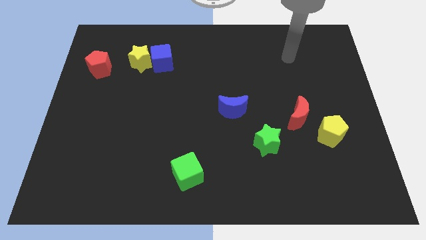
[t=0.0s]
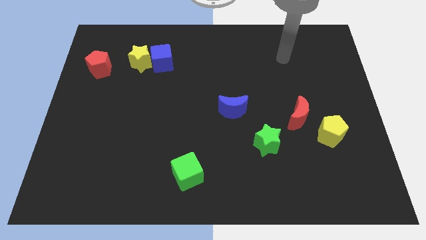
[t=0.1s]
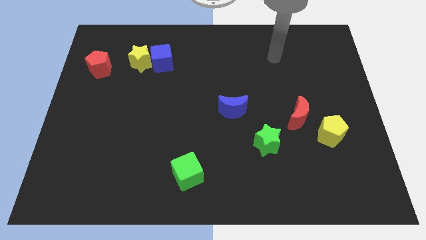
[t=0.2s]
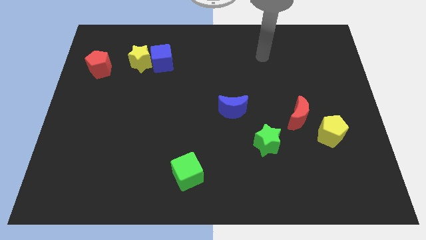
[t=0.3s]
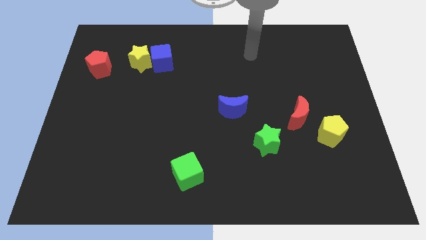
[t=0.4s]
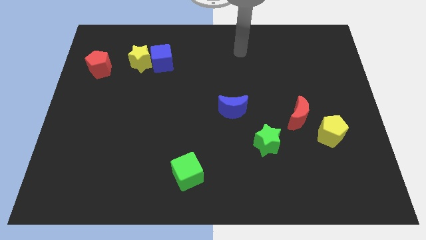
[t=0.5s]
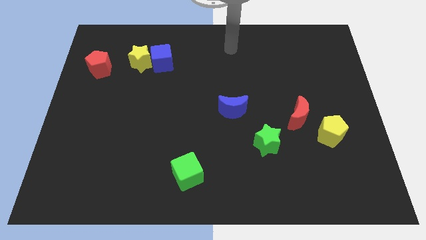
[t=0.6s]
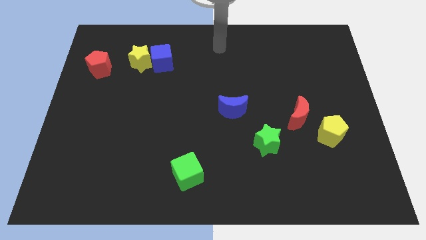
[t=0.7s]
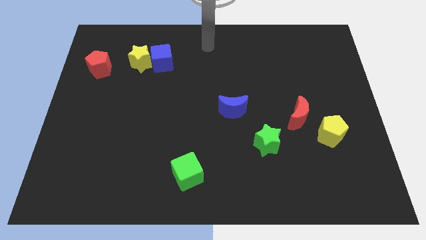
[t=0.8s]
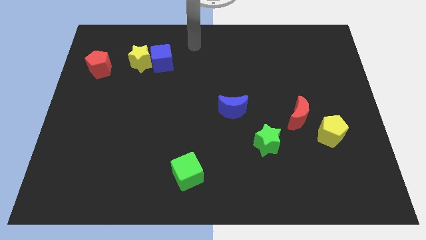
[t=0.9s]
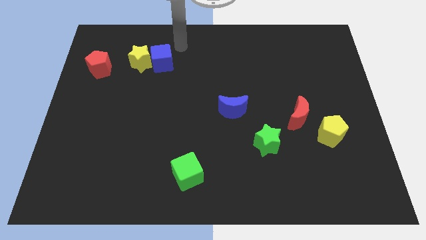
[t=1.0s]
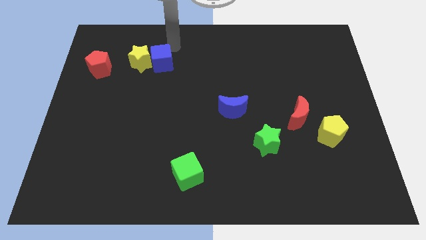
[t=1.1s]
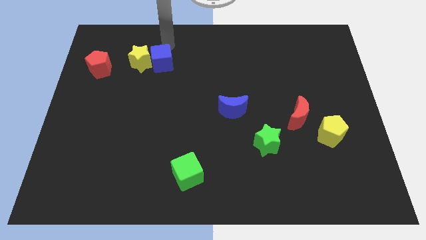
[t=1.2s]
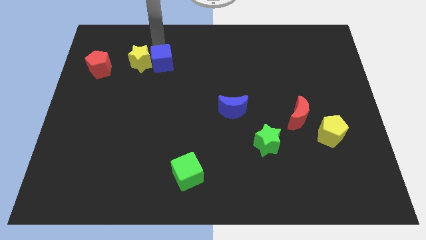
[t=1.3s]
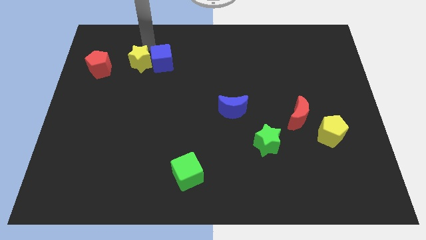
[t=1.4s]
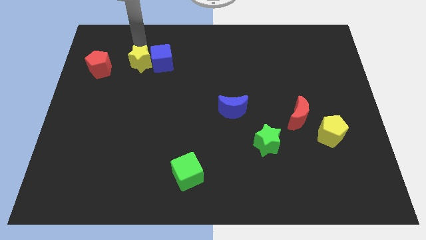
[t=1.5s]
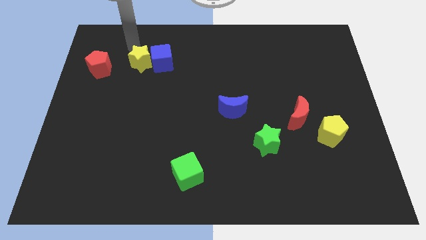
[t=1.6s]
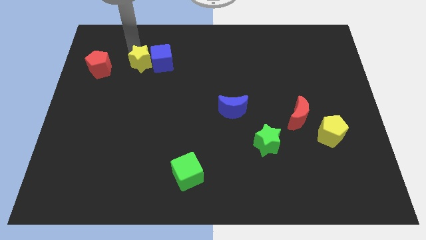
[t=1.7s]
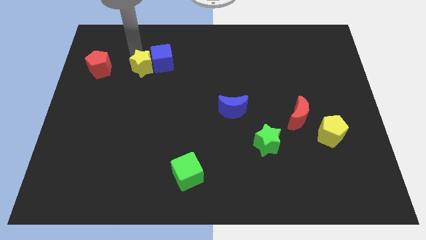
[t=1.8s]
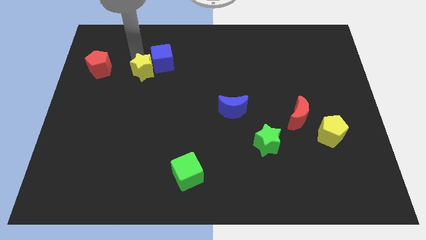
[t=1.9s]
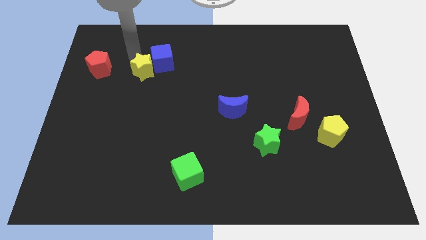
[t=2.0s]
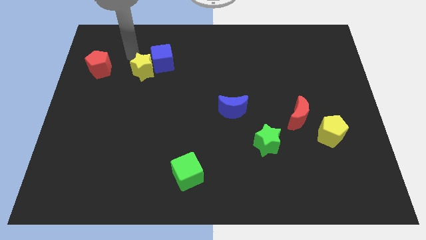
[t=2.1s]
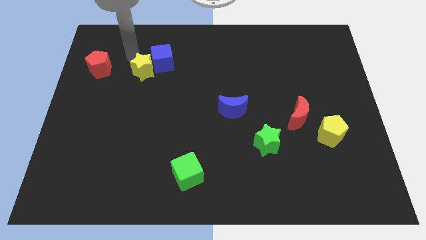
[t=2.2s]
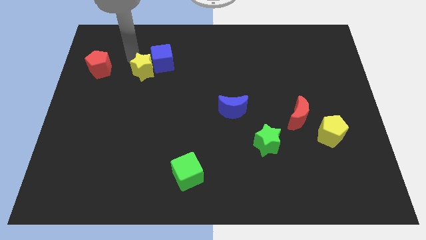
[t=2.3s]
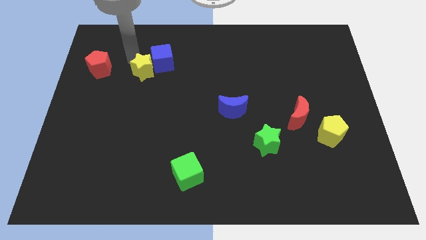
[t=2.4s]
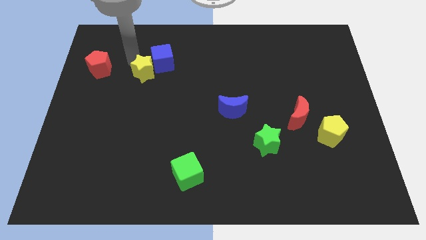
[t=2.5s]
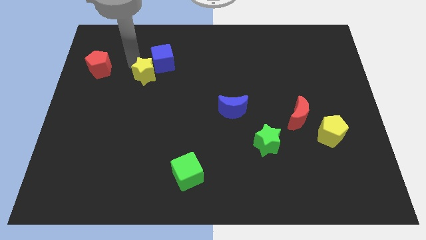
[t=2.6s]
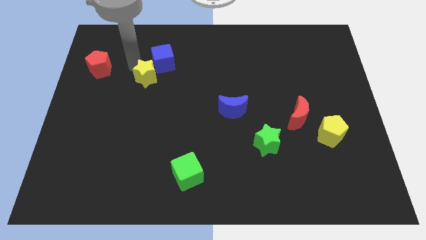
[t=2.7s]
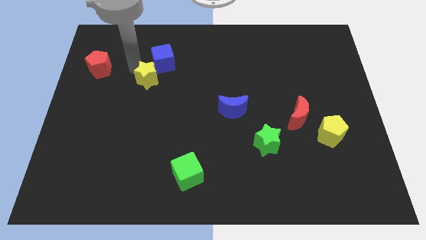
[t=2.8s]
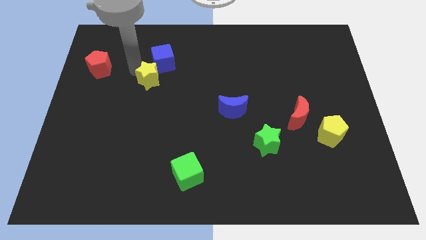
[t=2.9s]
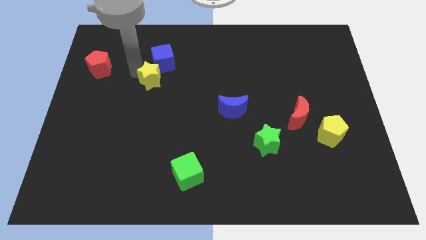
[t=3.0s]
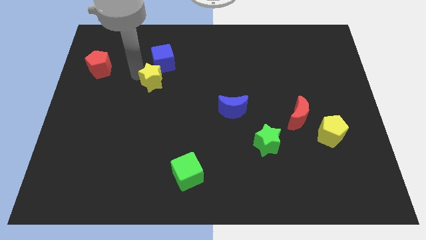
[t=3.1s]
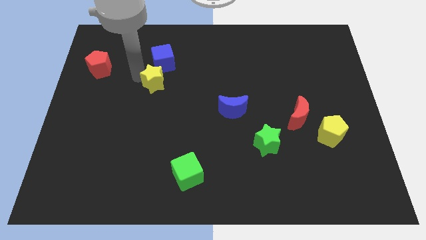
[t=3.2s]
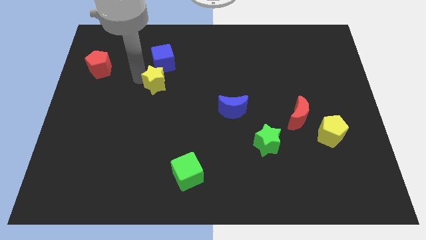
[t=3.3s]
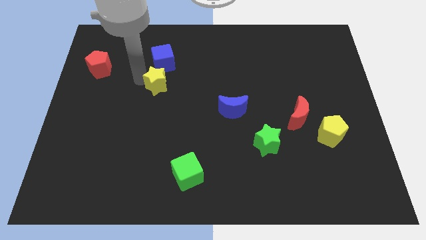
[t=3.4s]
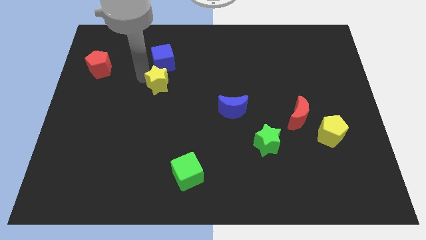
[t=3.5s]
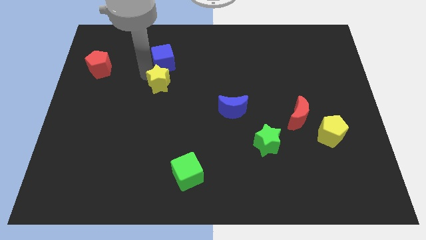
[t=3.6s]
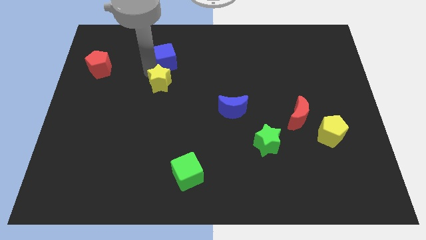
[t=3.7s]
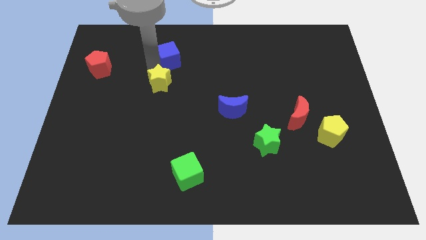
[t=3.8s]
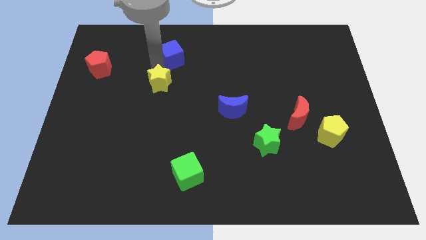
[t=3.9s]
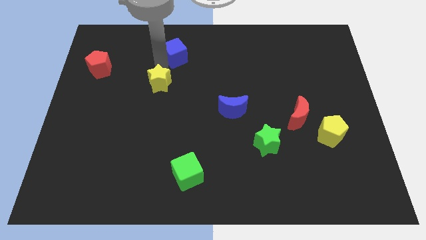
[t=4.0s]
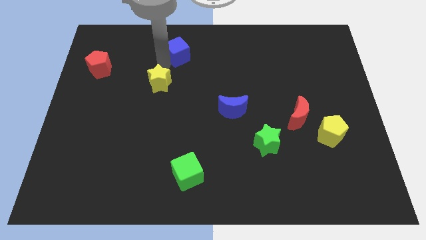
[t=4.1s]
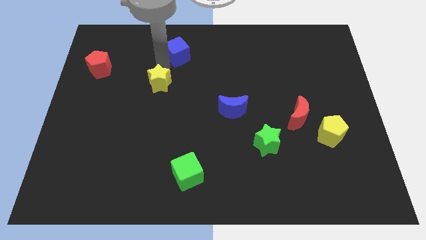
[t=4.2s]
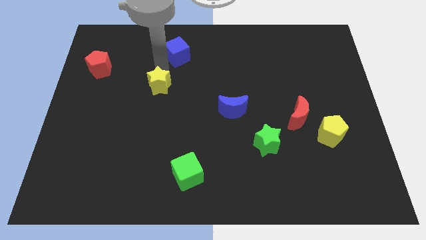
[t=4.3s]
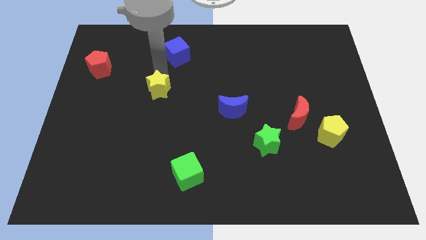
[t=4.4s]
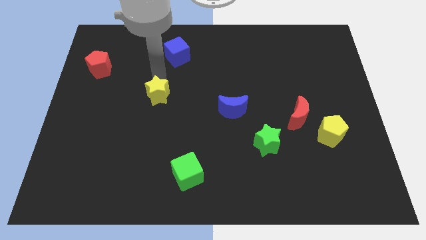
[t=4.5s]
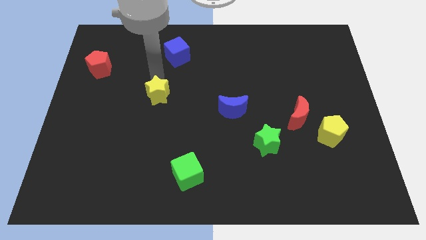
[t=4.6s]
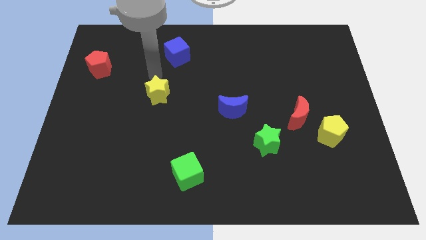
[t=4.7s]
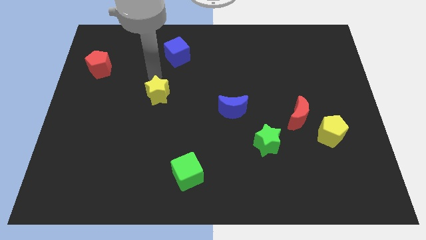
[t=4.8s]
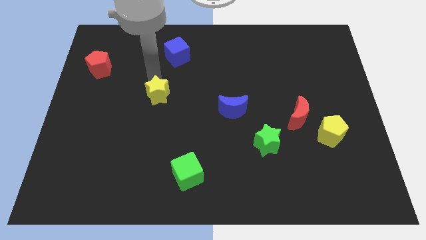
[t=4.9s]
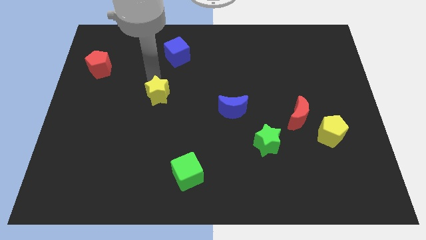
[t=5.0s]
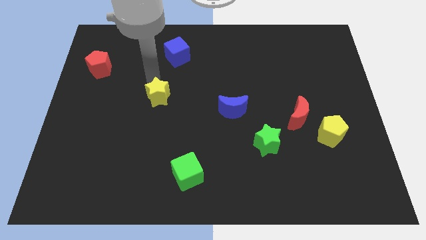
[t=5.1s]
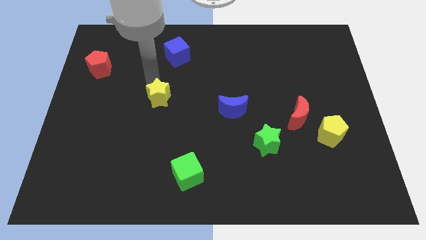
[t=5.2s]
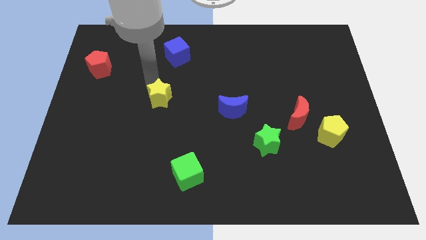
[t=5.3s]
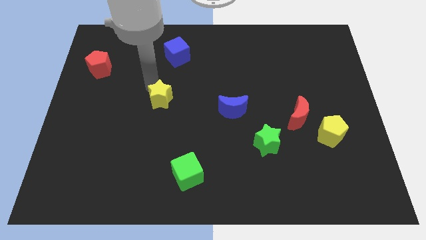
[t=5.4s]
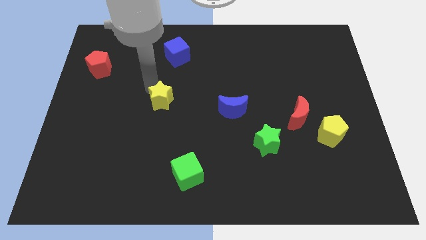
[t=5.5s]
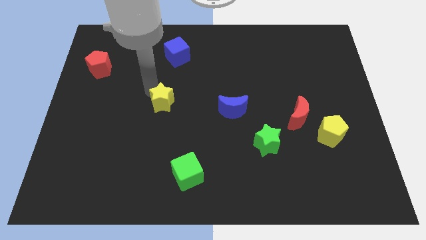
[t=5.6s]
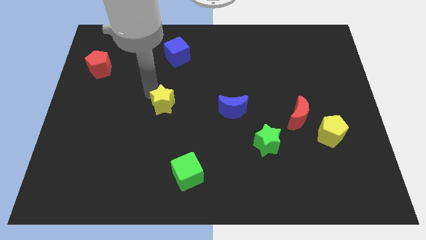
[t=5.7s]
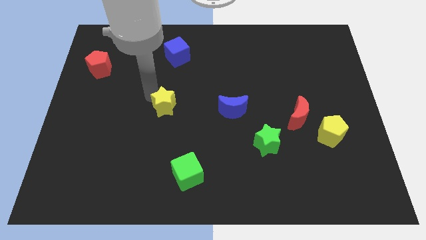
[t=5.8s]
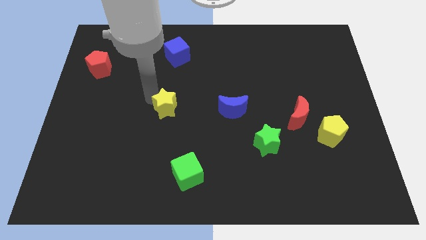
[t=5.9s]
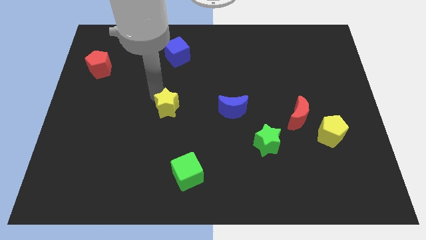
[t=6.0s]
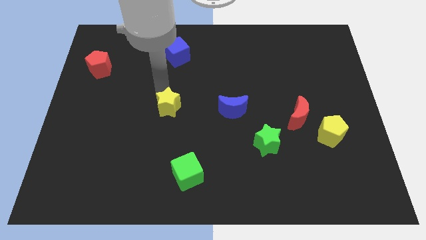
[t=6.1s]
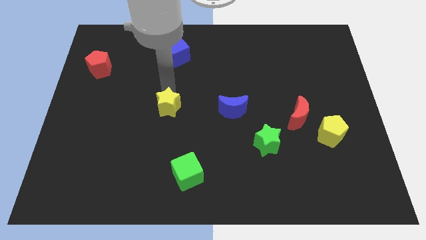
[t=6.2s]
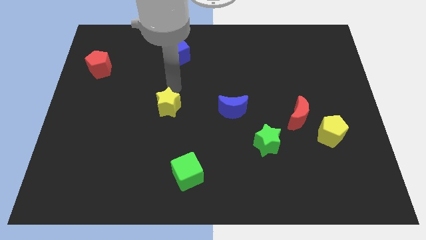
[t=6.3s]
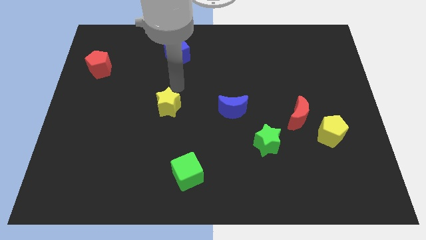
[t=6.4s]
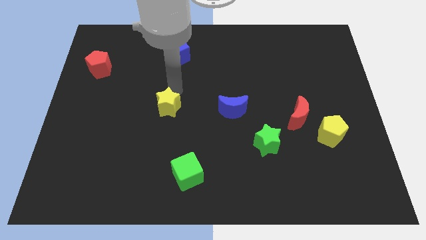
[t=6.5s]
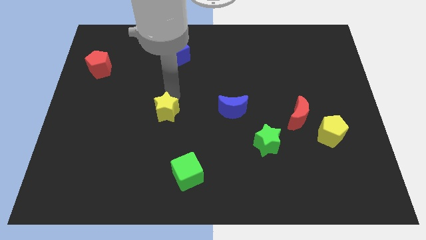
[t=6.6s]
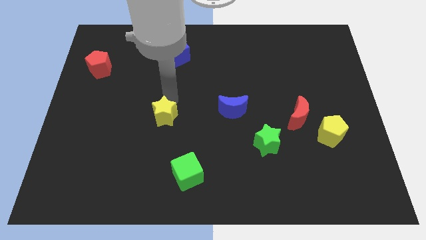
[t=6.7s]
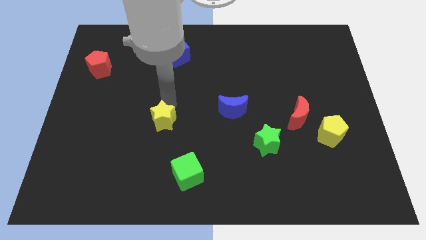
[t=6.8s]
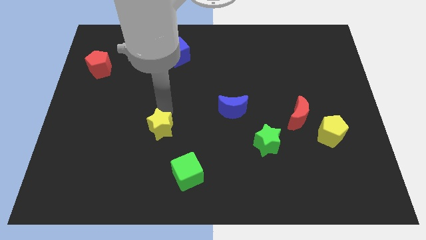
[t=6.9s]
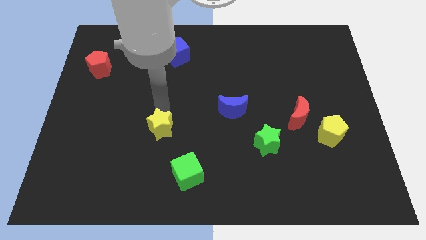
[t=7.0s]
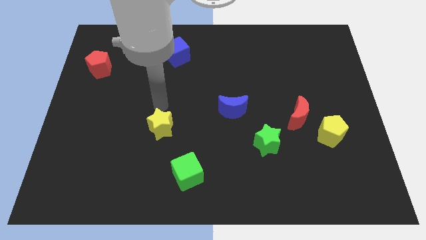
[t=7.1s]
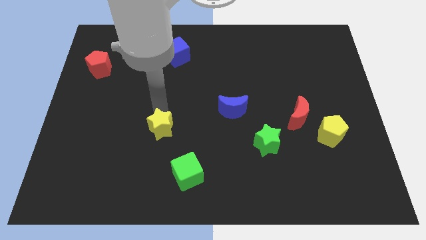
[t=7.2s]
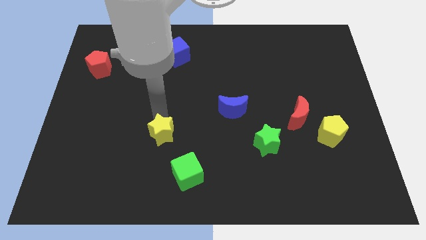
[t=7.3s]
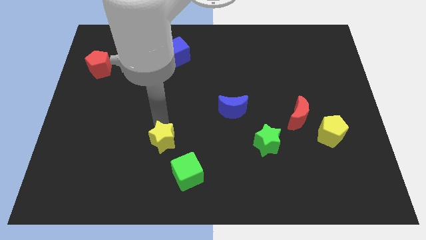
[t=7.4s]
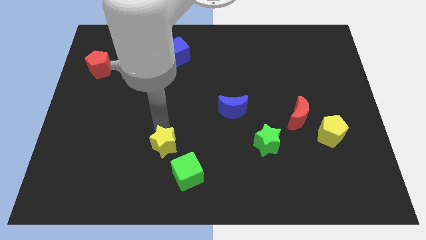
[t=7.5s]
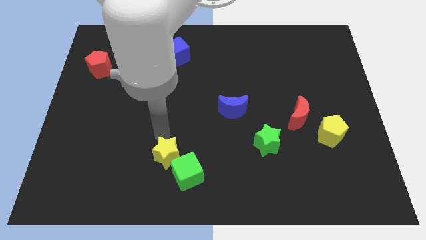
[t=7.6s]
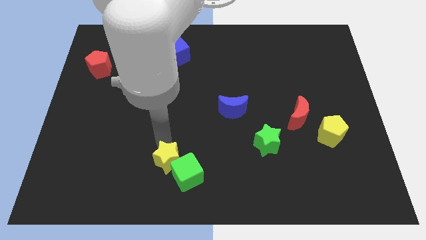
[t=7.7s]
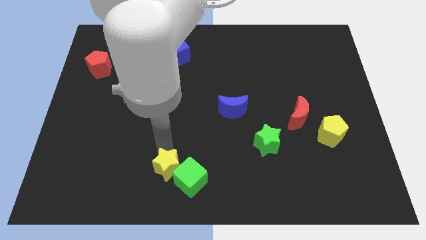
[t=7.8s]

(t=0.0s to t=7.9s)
push the yellow star to the bottom side
